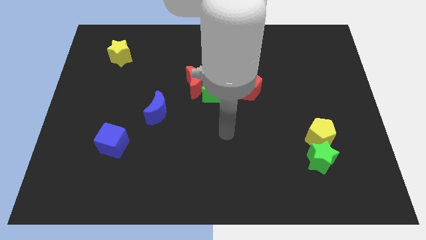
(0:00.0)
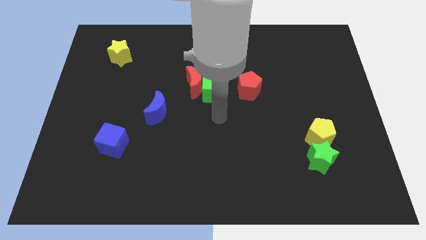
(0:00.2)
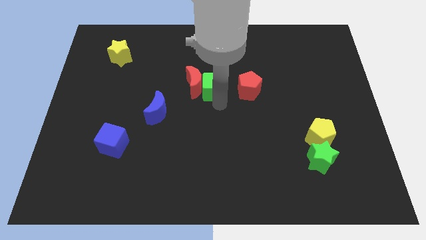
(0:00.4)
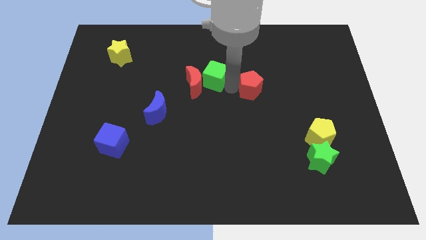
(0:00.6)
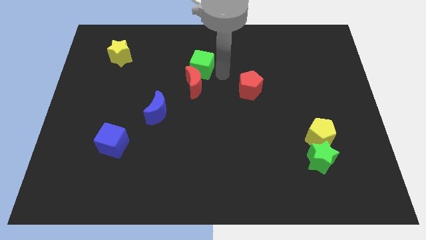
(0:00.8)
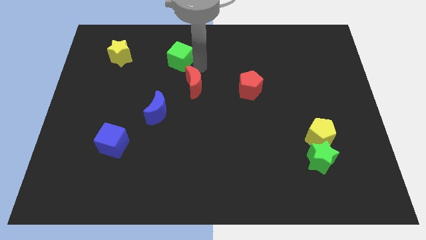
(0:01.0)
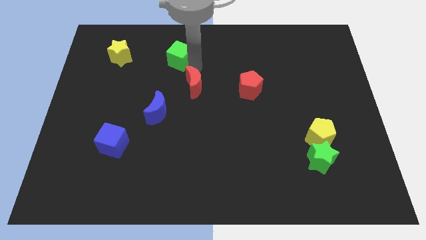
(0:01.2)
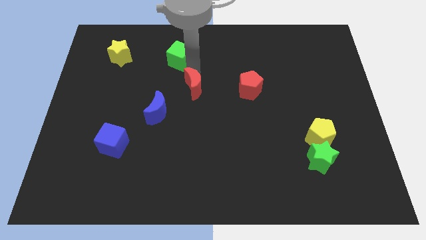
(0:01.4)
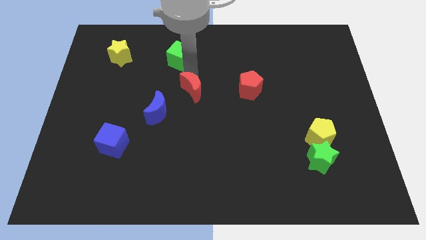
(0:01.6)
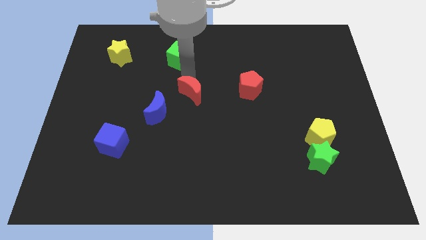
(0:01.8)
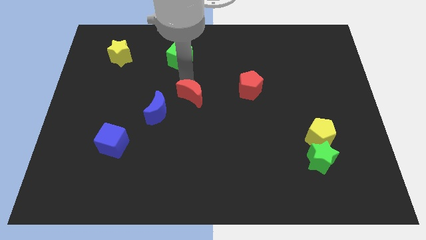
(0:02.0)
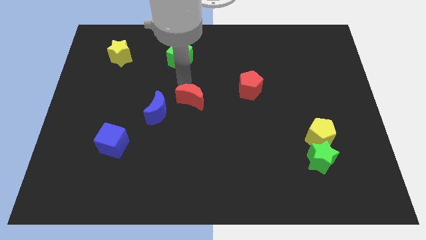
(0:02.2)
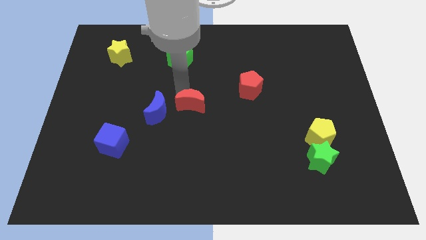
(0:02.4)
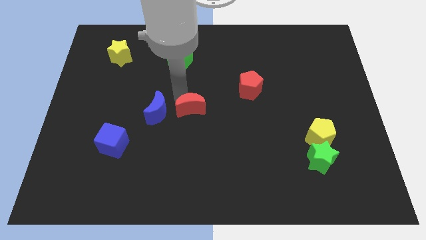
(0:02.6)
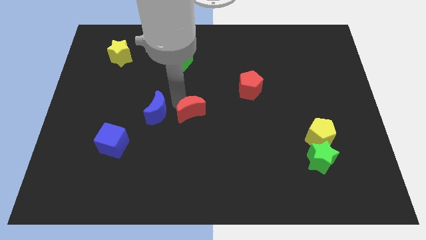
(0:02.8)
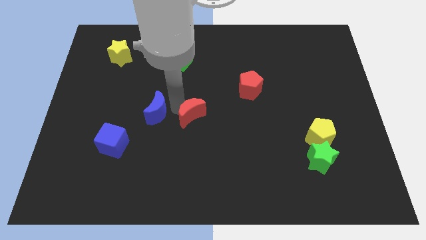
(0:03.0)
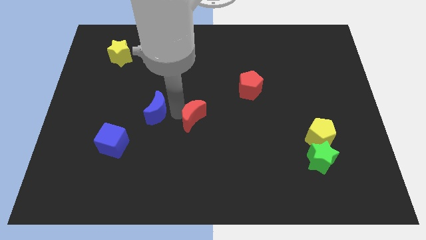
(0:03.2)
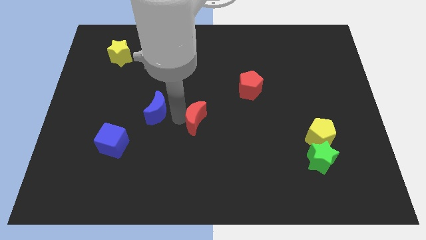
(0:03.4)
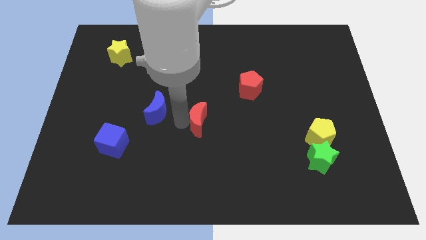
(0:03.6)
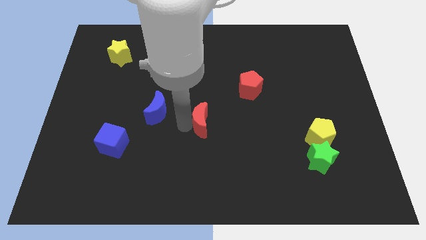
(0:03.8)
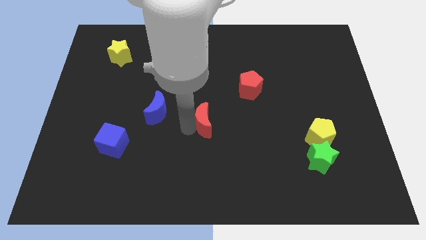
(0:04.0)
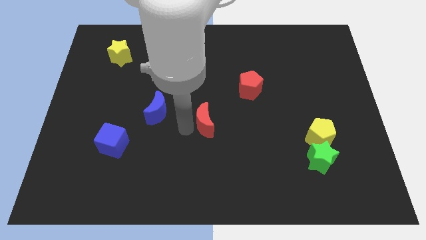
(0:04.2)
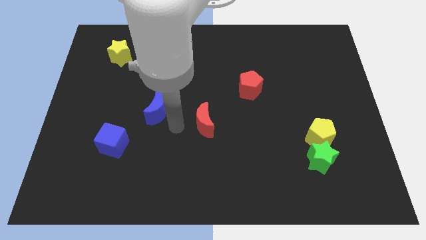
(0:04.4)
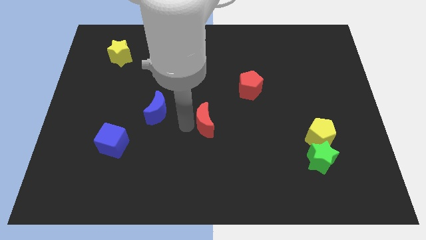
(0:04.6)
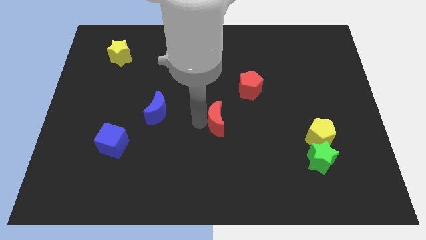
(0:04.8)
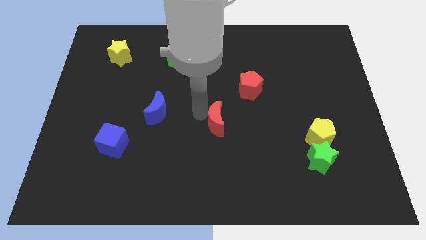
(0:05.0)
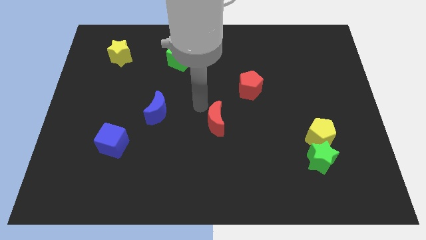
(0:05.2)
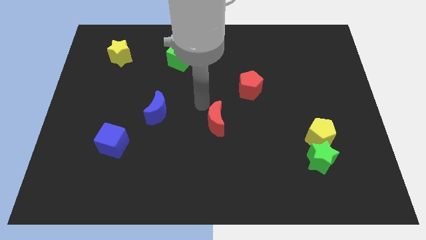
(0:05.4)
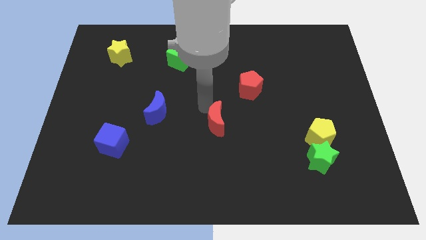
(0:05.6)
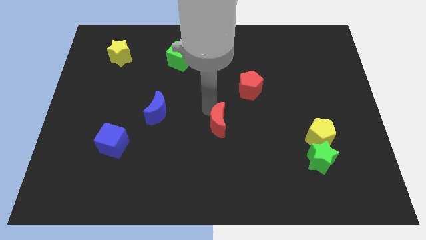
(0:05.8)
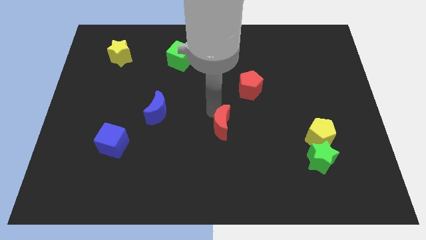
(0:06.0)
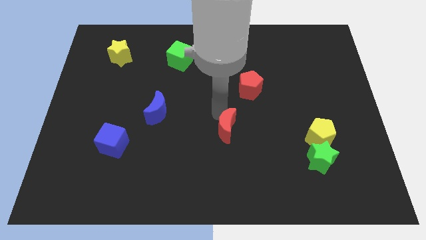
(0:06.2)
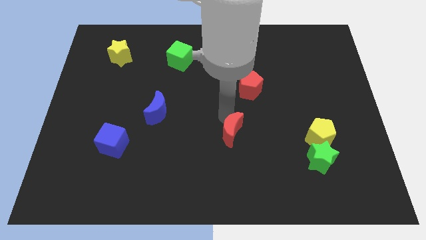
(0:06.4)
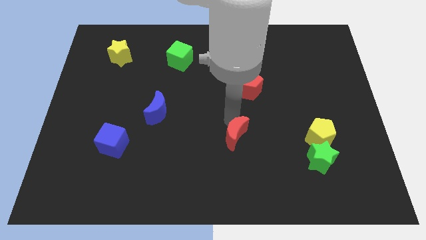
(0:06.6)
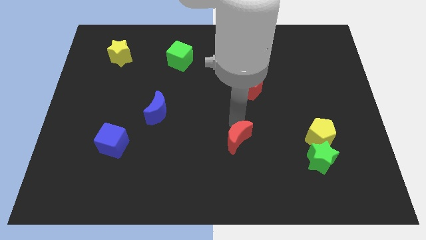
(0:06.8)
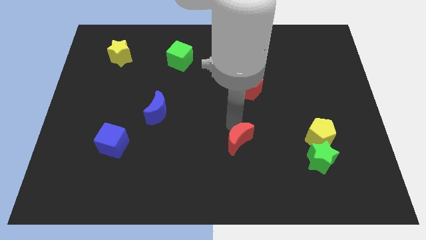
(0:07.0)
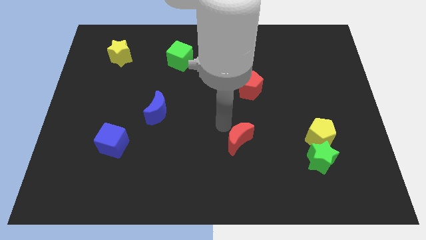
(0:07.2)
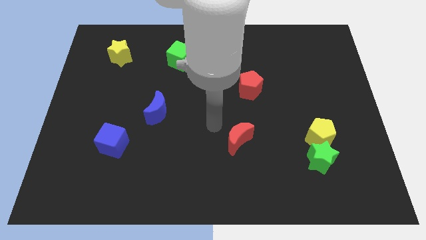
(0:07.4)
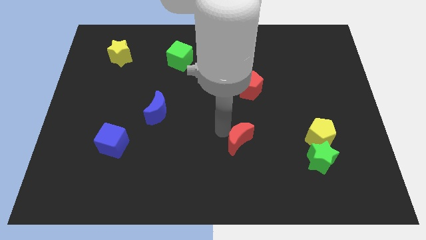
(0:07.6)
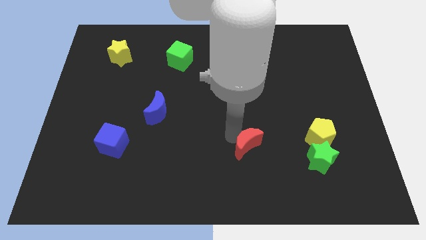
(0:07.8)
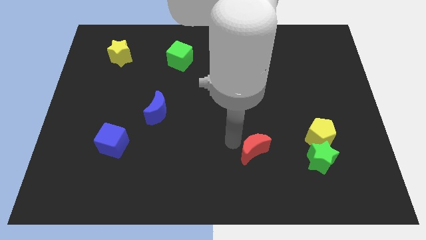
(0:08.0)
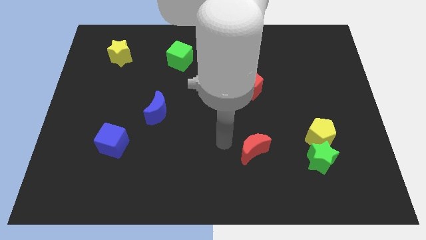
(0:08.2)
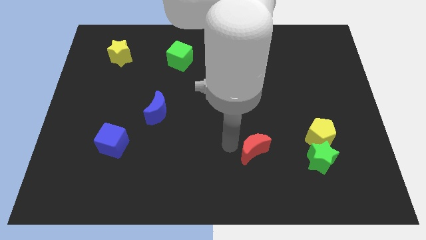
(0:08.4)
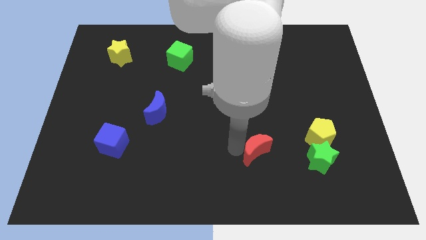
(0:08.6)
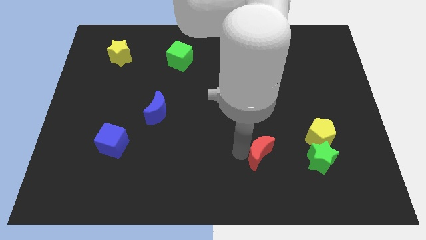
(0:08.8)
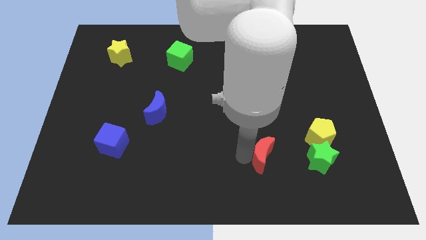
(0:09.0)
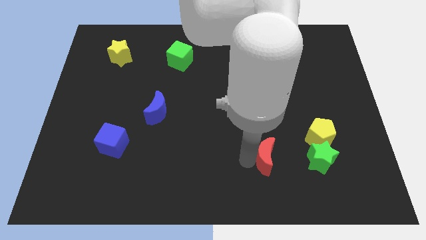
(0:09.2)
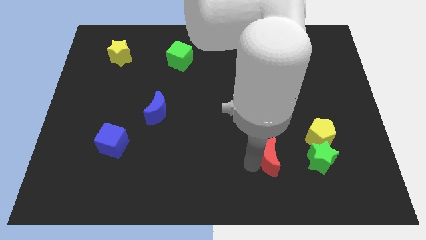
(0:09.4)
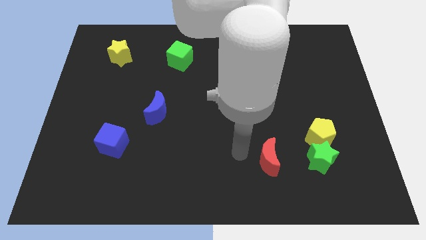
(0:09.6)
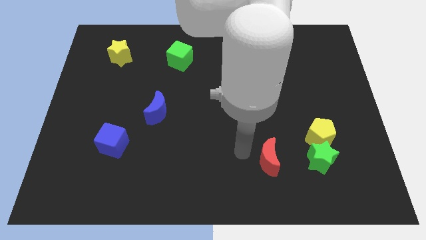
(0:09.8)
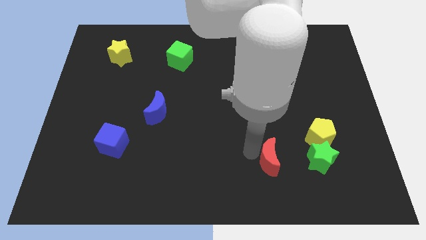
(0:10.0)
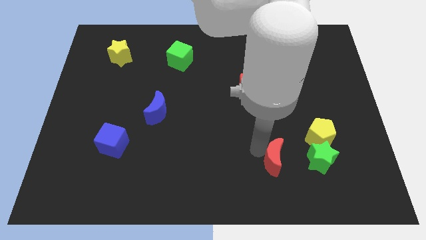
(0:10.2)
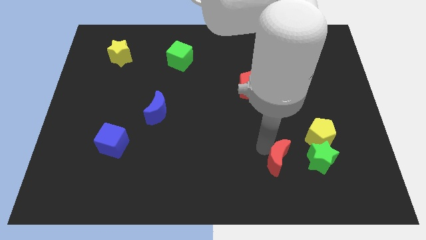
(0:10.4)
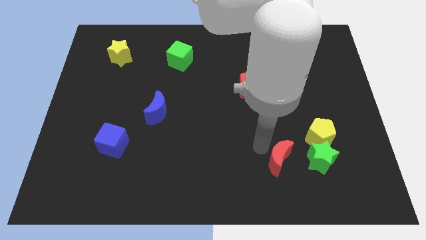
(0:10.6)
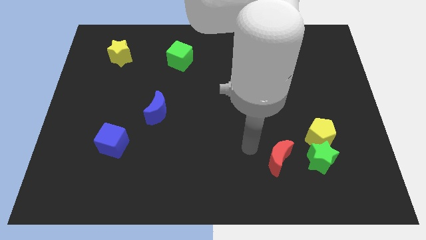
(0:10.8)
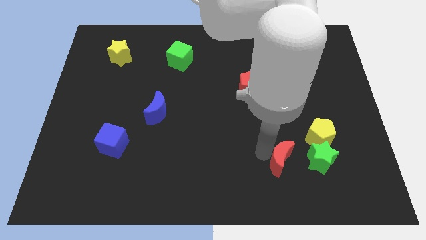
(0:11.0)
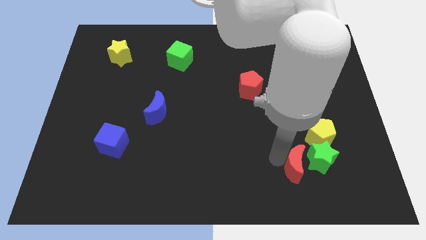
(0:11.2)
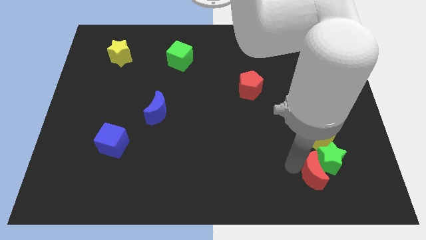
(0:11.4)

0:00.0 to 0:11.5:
move the red moon to the bottom of the yellow pentagon

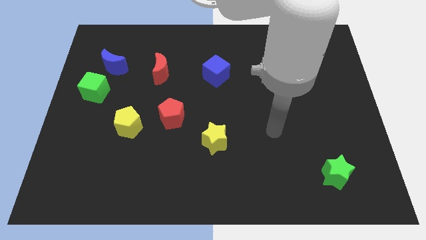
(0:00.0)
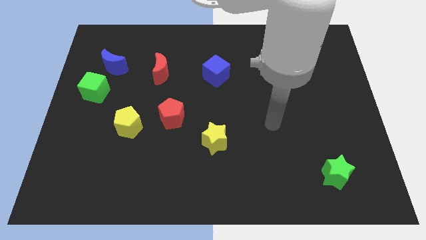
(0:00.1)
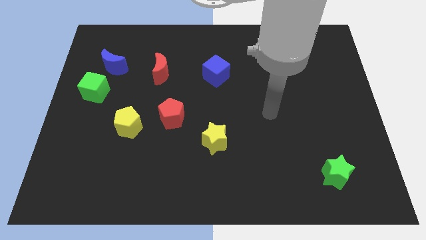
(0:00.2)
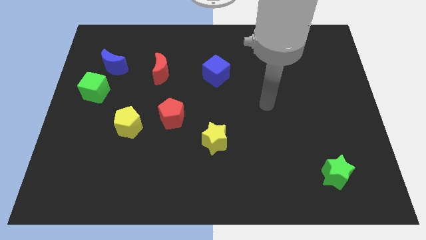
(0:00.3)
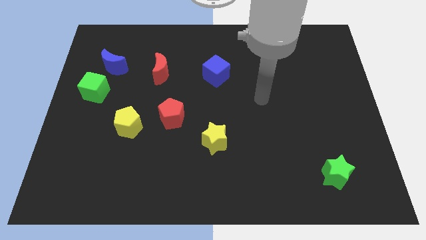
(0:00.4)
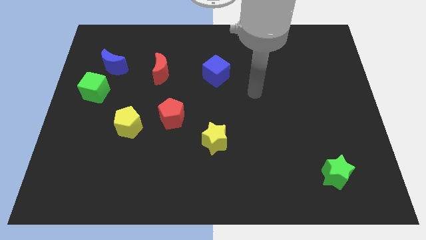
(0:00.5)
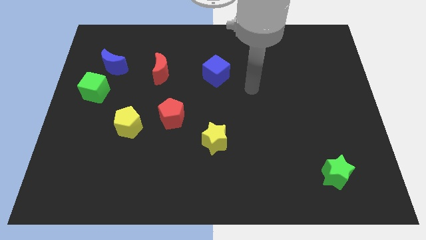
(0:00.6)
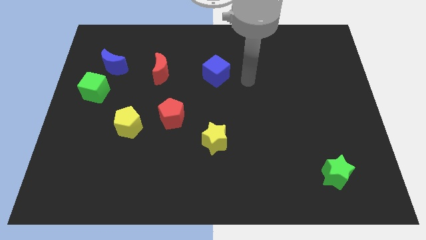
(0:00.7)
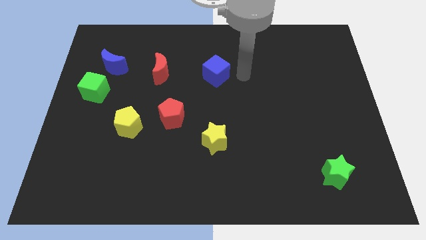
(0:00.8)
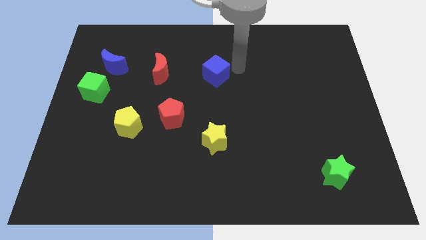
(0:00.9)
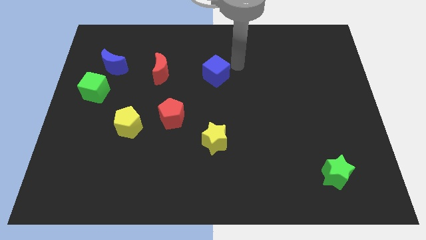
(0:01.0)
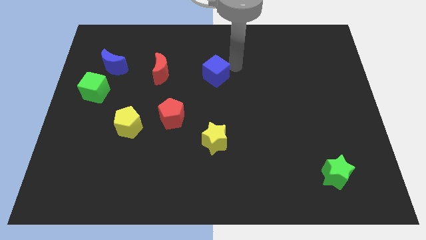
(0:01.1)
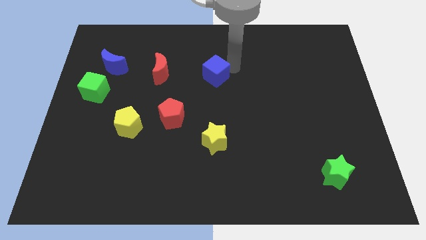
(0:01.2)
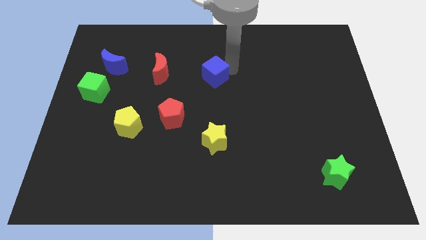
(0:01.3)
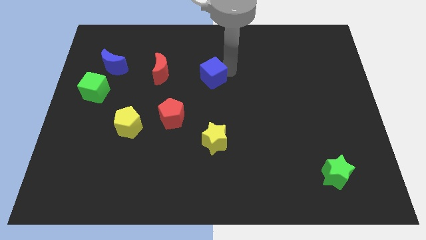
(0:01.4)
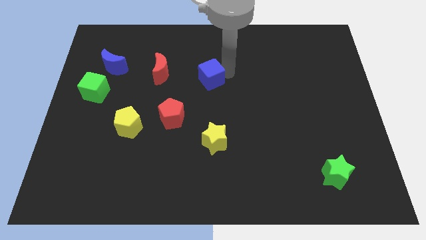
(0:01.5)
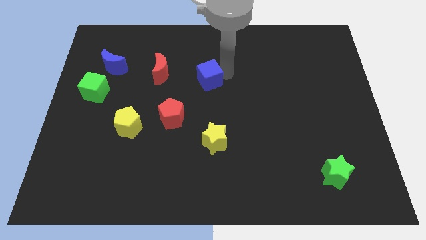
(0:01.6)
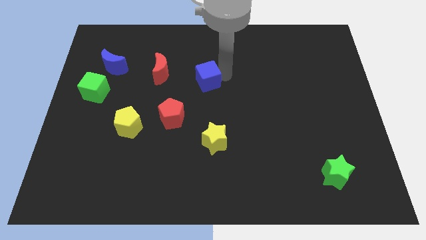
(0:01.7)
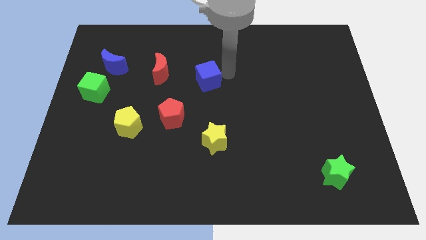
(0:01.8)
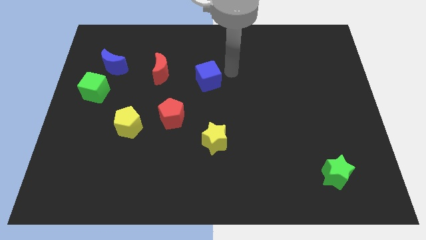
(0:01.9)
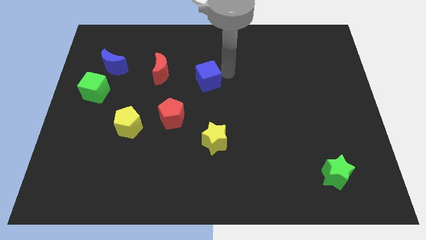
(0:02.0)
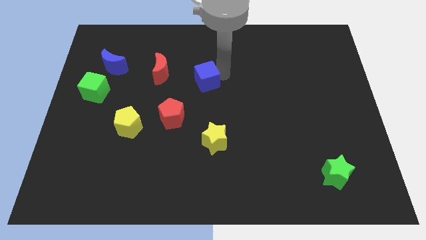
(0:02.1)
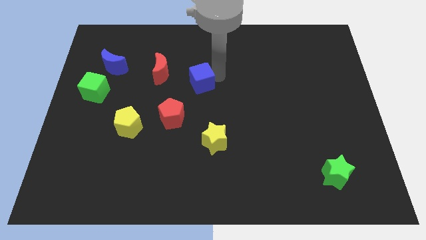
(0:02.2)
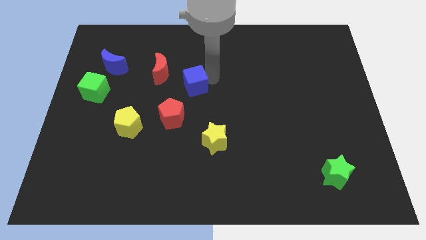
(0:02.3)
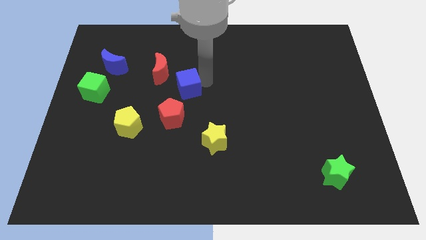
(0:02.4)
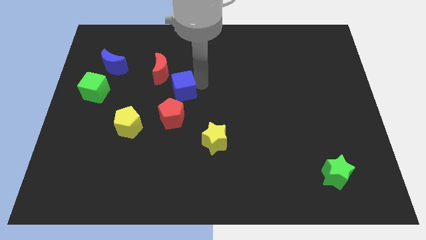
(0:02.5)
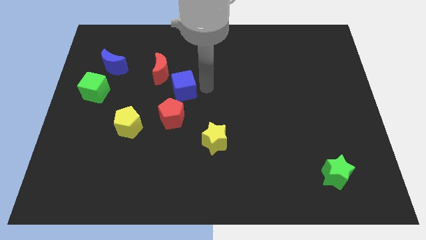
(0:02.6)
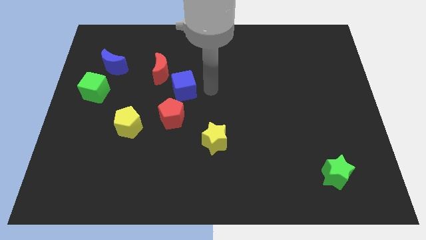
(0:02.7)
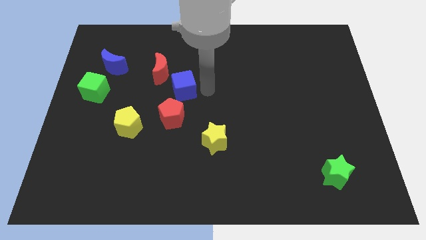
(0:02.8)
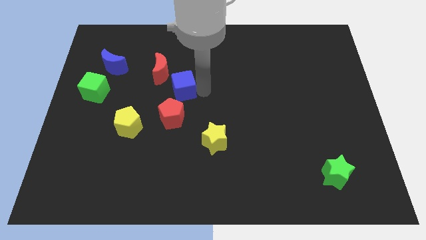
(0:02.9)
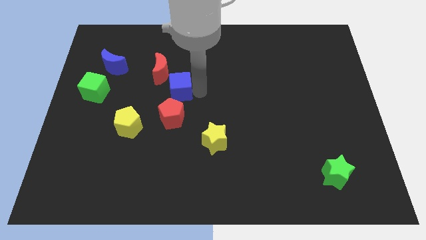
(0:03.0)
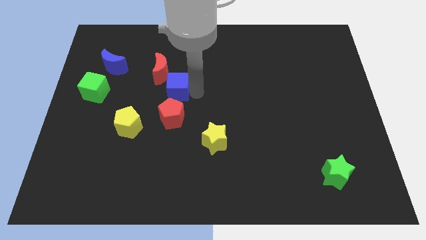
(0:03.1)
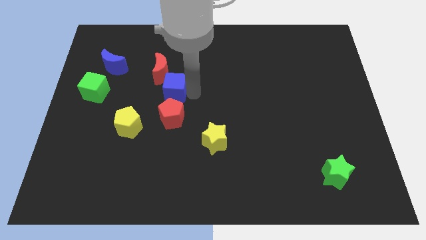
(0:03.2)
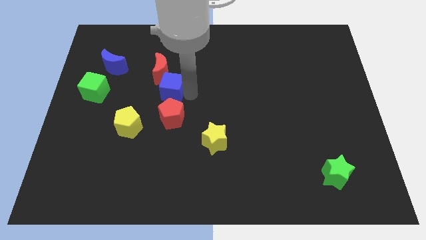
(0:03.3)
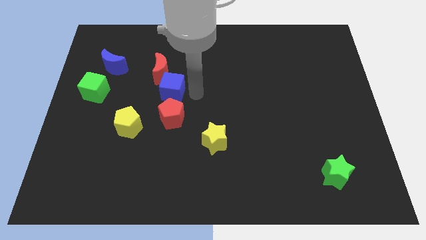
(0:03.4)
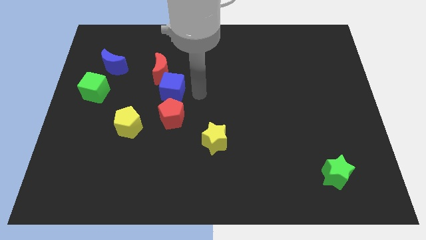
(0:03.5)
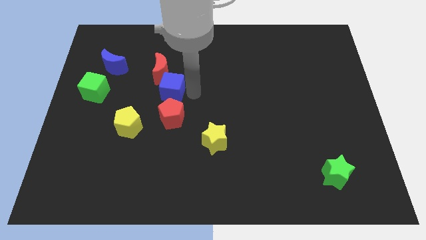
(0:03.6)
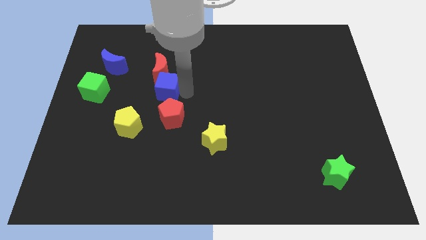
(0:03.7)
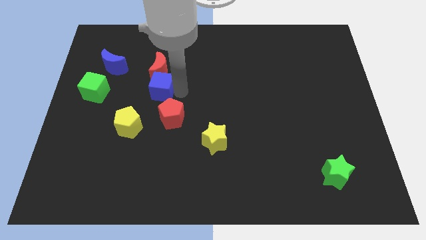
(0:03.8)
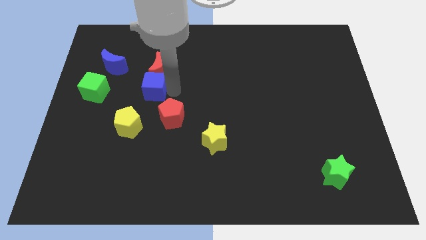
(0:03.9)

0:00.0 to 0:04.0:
slide the blue cube to the top of the yellow pentagon
